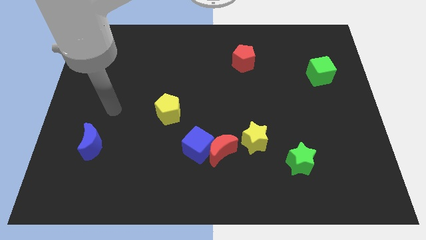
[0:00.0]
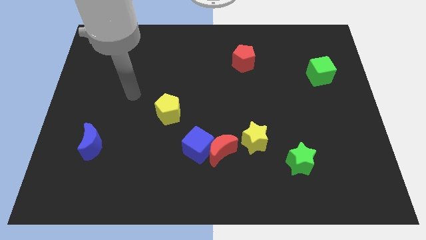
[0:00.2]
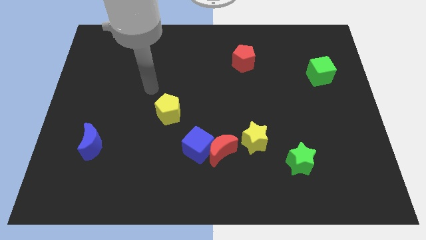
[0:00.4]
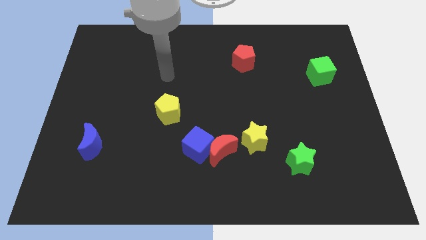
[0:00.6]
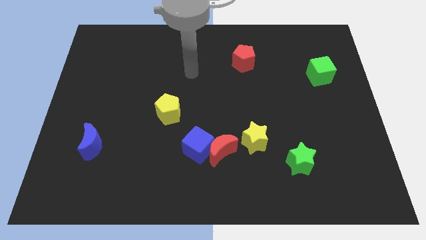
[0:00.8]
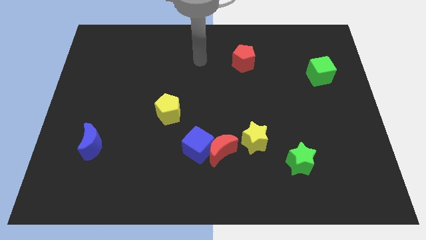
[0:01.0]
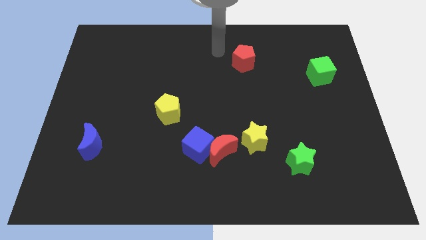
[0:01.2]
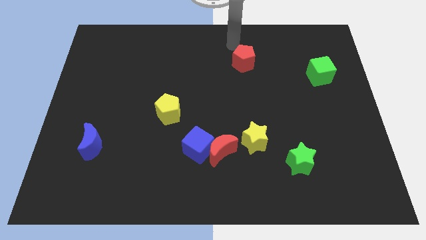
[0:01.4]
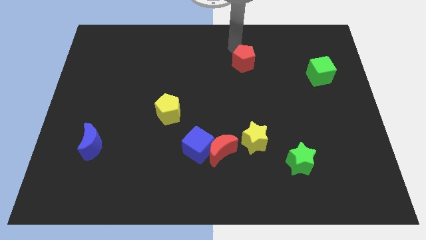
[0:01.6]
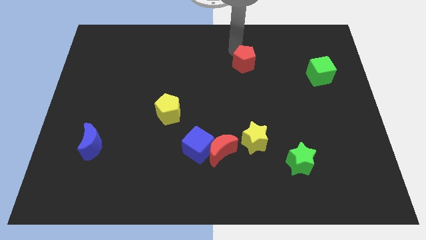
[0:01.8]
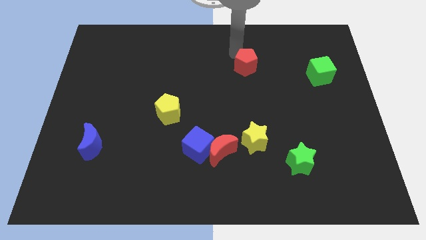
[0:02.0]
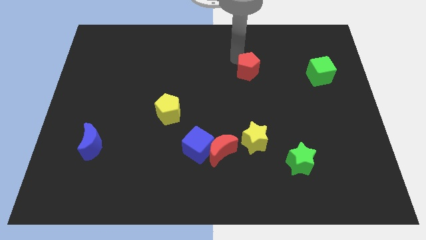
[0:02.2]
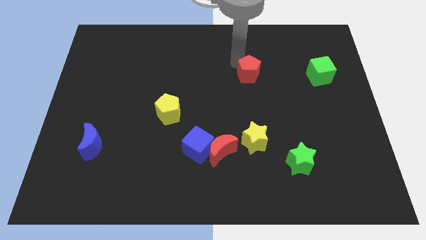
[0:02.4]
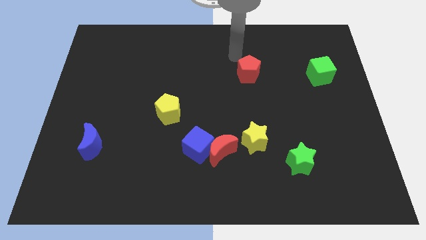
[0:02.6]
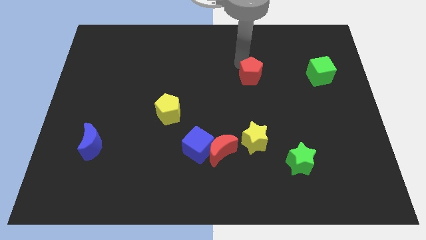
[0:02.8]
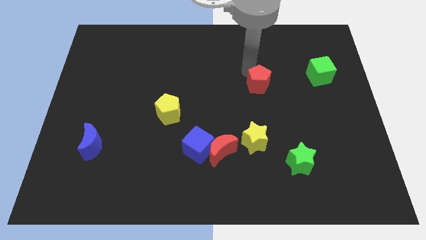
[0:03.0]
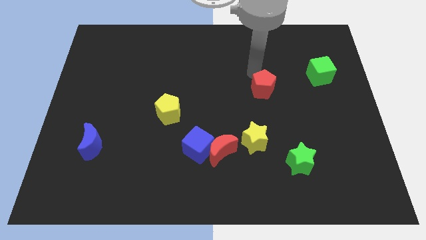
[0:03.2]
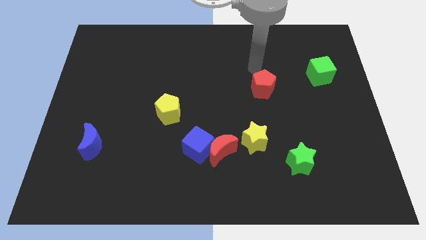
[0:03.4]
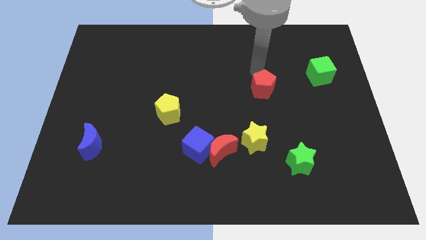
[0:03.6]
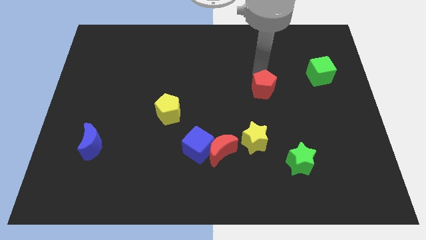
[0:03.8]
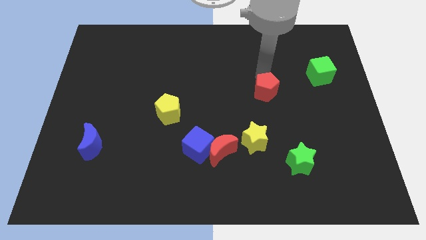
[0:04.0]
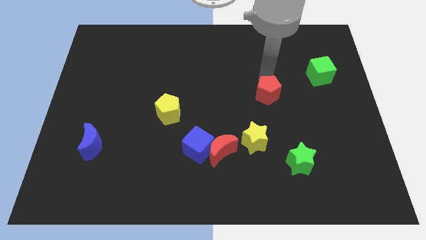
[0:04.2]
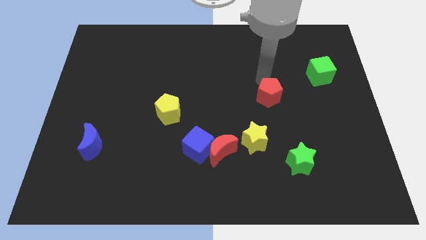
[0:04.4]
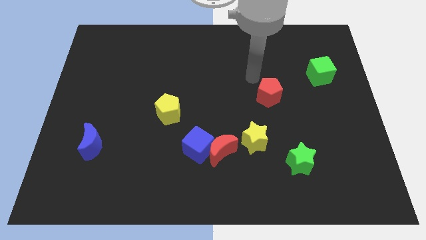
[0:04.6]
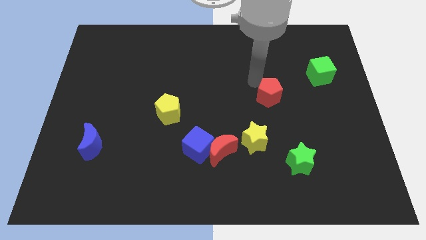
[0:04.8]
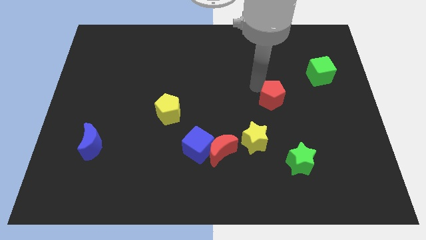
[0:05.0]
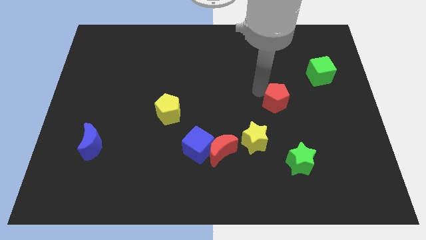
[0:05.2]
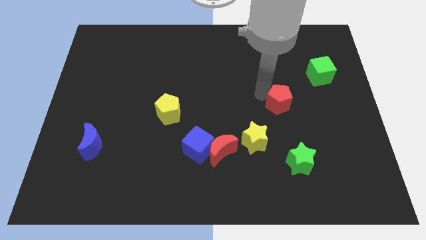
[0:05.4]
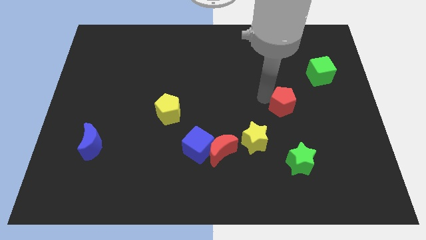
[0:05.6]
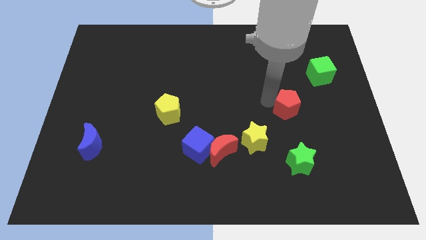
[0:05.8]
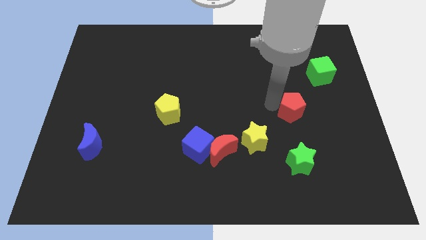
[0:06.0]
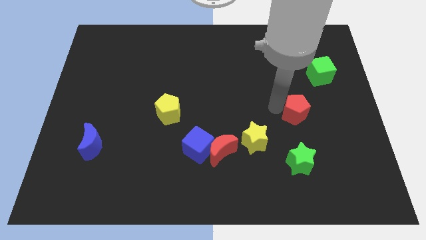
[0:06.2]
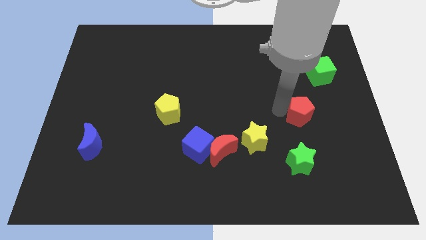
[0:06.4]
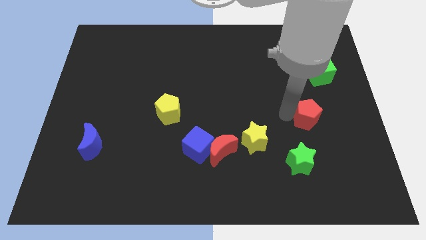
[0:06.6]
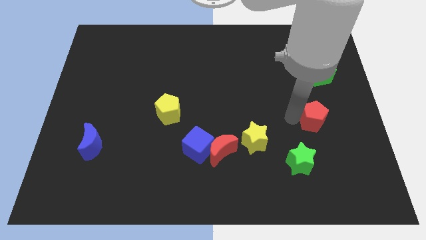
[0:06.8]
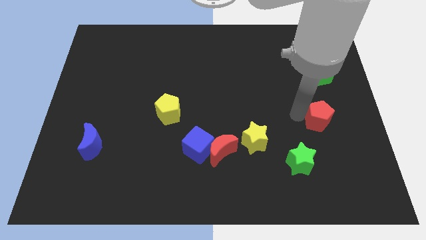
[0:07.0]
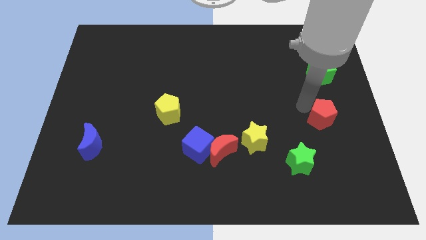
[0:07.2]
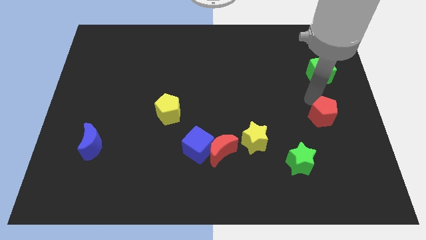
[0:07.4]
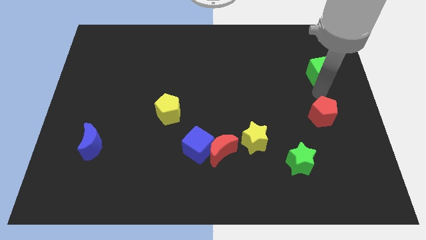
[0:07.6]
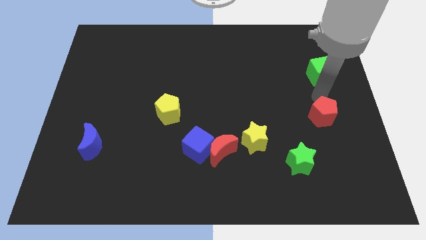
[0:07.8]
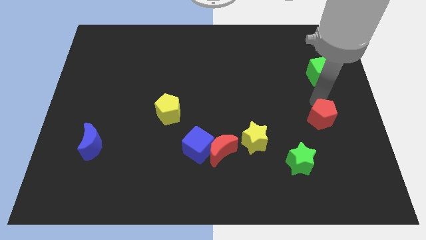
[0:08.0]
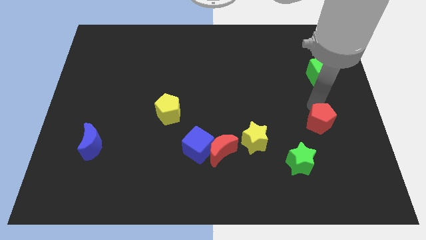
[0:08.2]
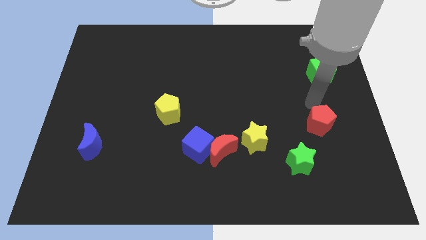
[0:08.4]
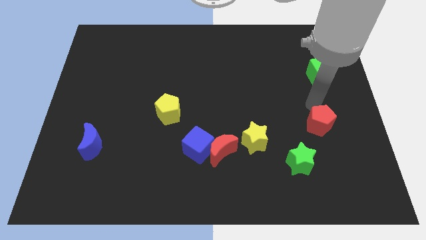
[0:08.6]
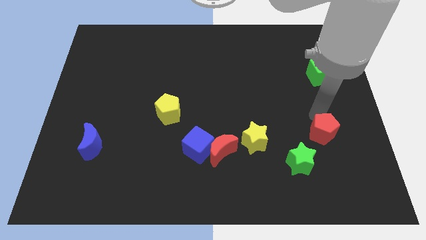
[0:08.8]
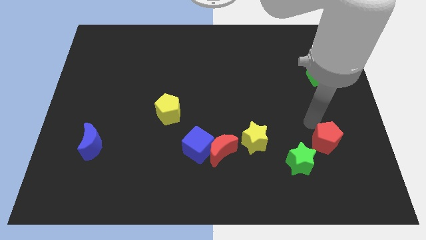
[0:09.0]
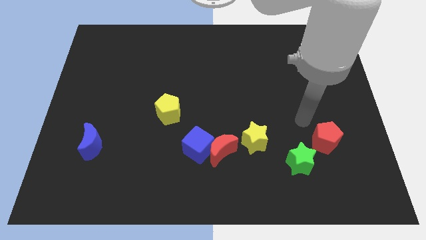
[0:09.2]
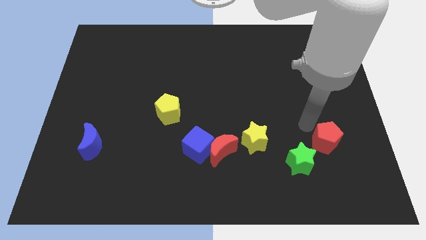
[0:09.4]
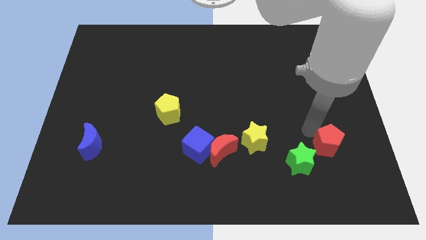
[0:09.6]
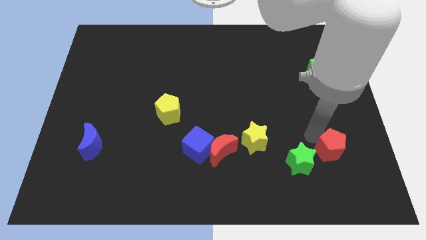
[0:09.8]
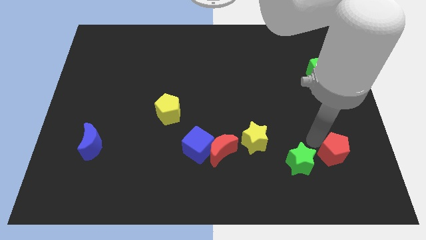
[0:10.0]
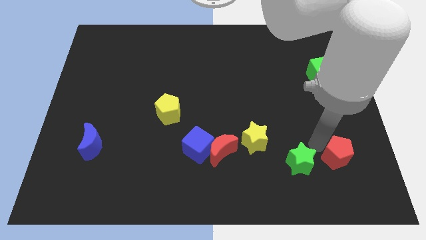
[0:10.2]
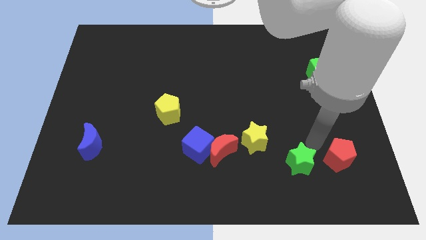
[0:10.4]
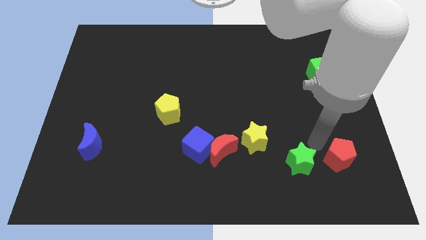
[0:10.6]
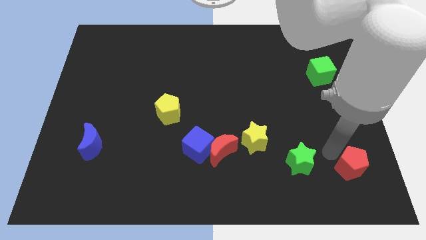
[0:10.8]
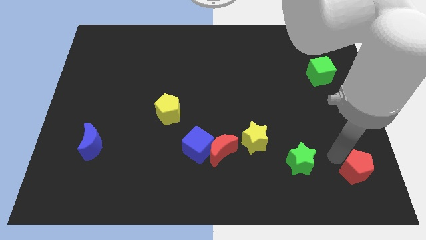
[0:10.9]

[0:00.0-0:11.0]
slide the red pentagon to the lower right corner

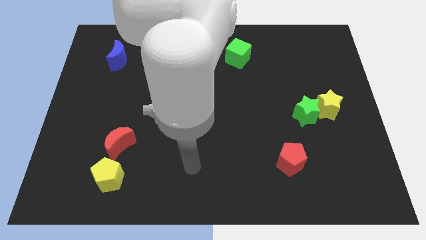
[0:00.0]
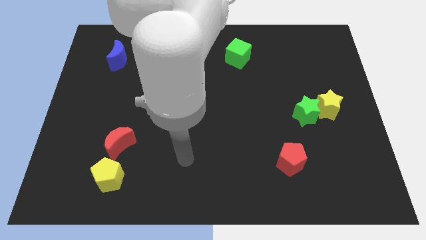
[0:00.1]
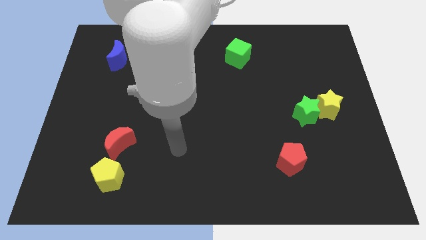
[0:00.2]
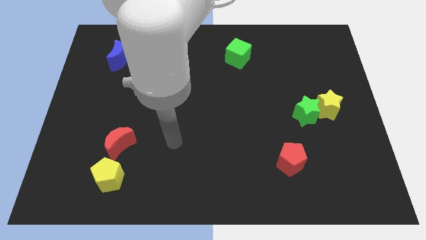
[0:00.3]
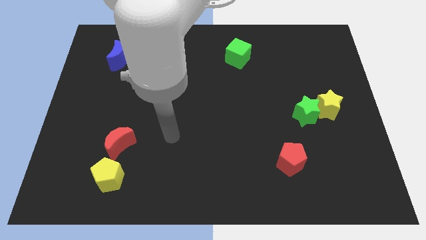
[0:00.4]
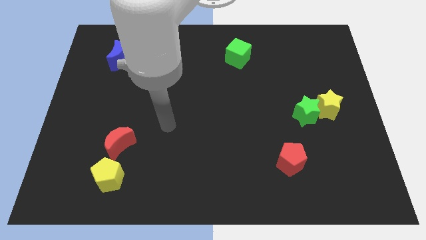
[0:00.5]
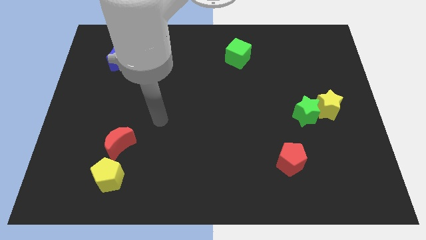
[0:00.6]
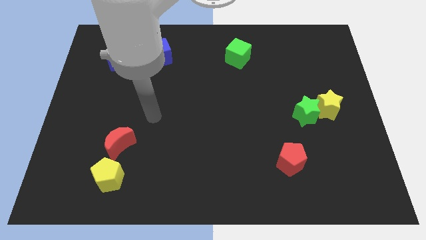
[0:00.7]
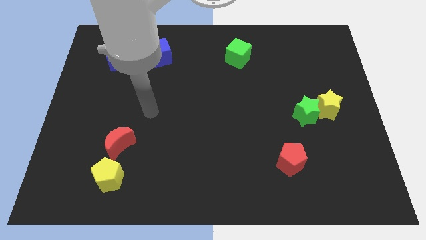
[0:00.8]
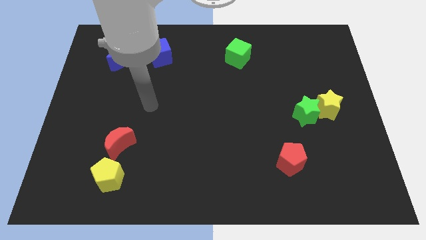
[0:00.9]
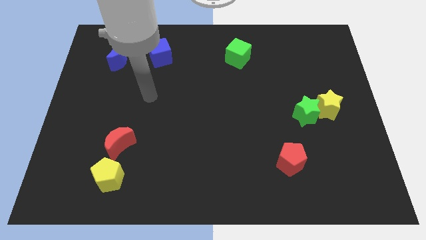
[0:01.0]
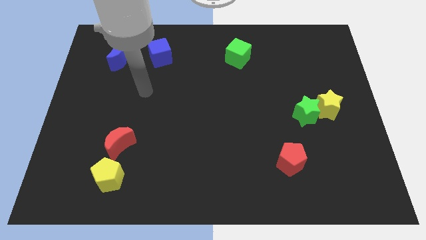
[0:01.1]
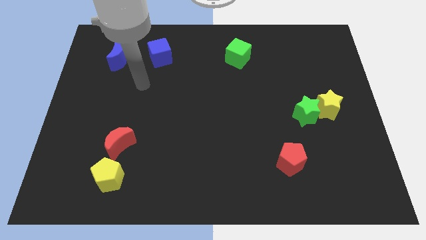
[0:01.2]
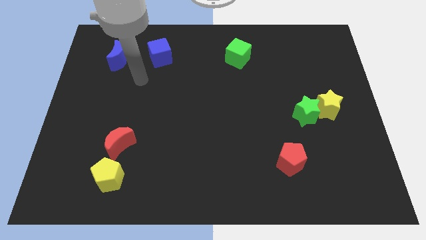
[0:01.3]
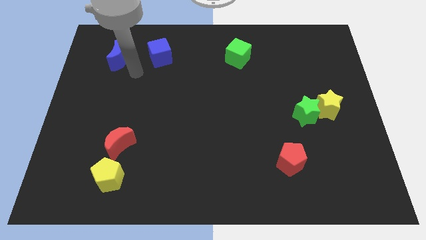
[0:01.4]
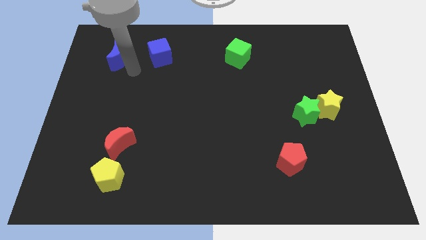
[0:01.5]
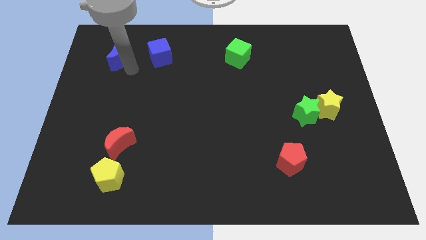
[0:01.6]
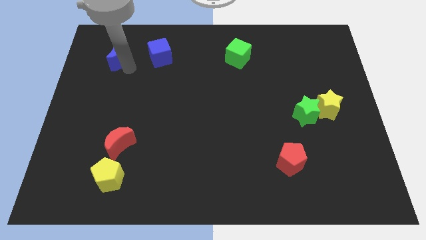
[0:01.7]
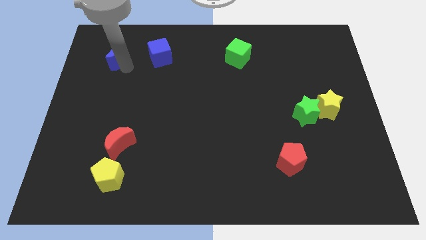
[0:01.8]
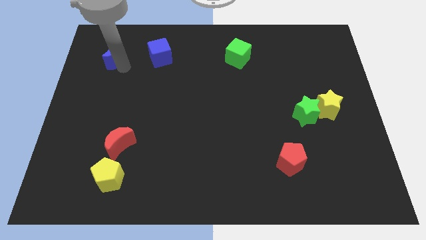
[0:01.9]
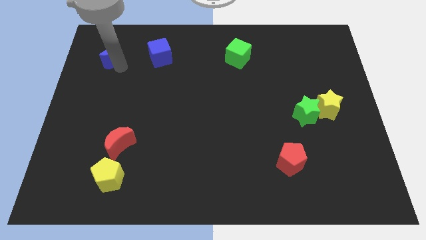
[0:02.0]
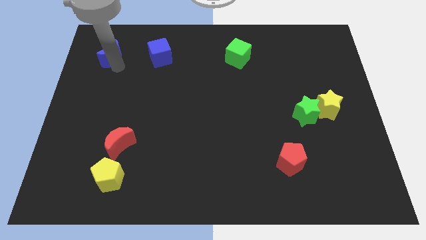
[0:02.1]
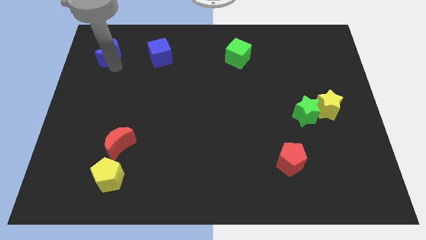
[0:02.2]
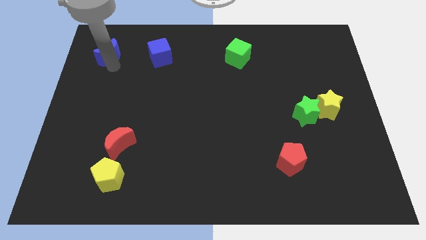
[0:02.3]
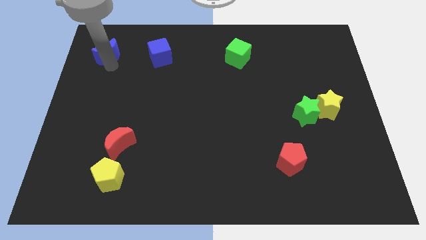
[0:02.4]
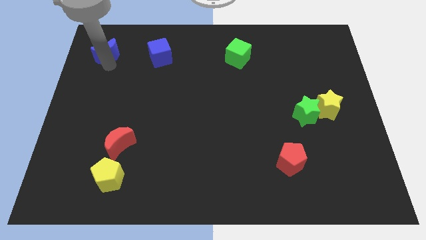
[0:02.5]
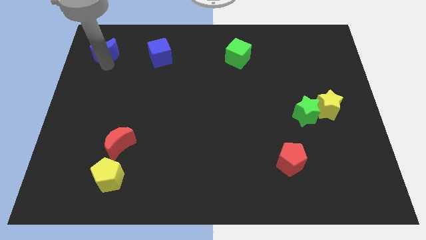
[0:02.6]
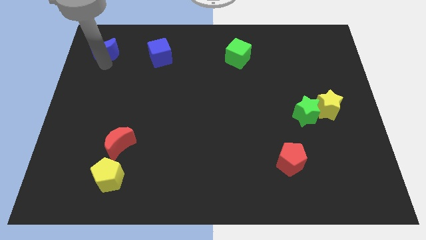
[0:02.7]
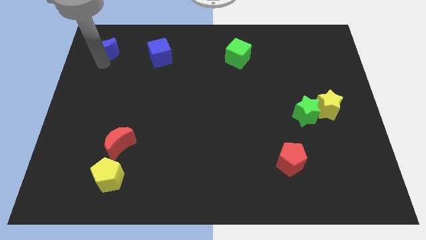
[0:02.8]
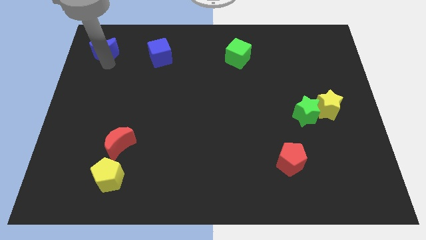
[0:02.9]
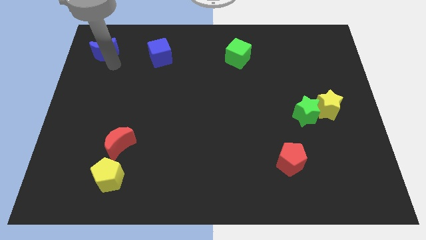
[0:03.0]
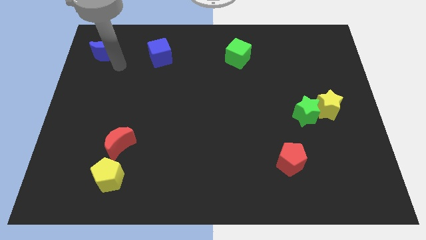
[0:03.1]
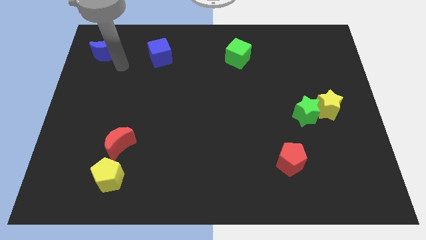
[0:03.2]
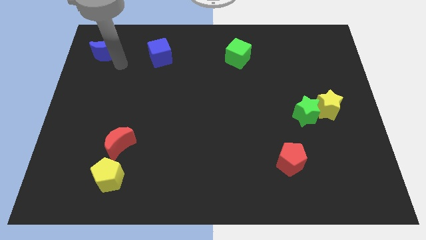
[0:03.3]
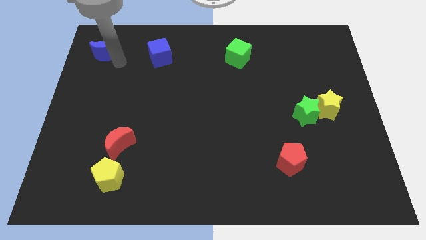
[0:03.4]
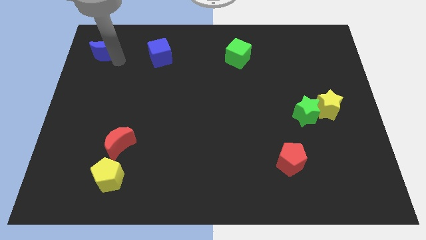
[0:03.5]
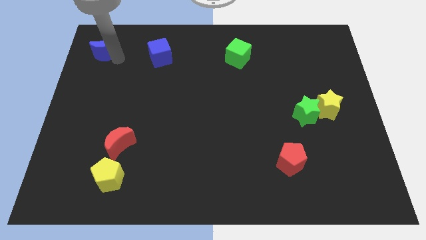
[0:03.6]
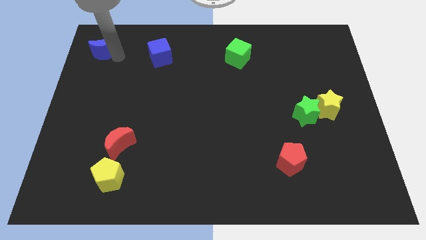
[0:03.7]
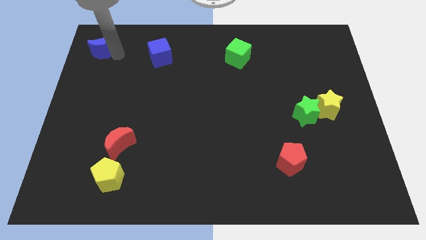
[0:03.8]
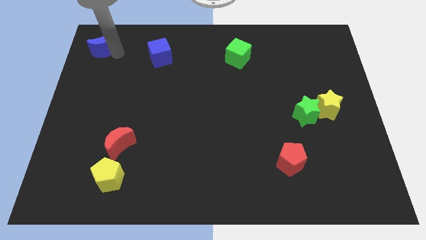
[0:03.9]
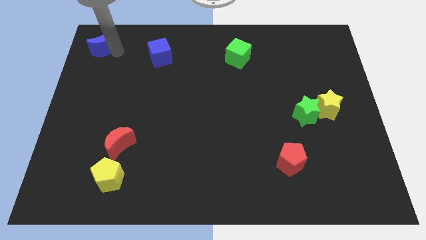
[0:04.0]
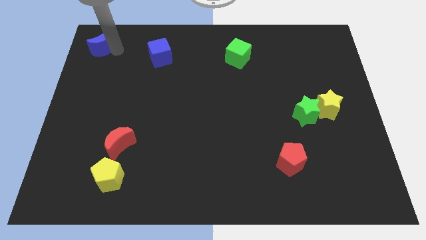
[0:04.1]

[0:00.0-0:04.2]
put the blue moon to the top left of the board
